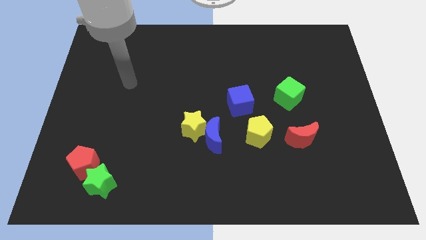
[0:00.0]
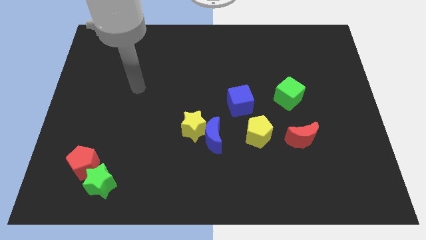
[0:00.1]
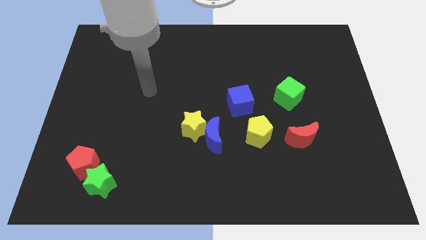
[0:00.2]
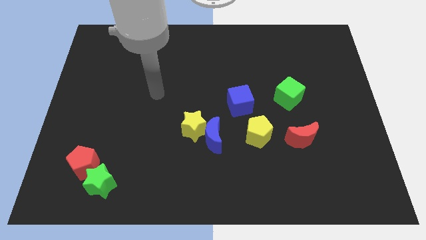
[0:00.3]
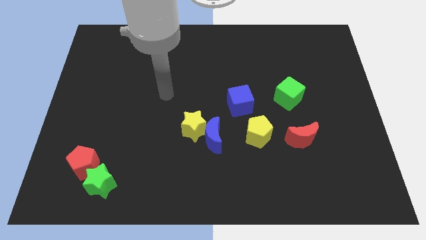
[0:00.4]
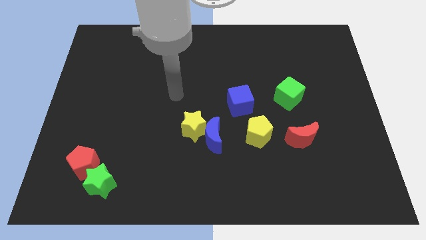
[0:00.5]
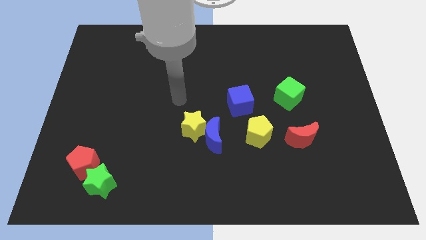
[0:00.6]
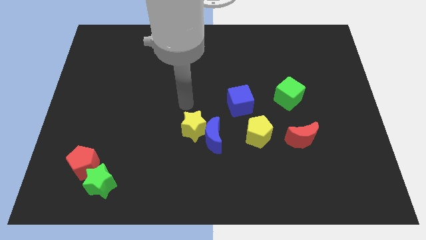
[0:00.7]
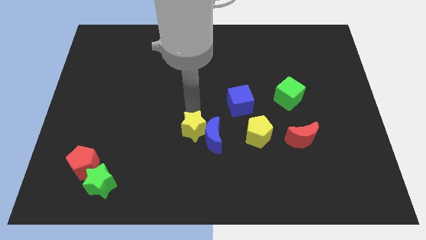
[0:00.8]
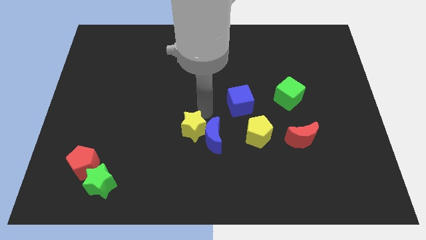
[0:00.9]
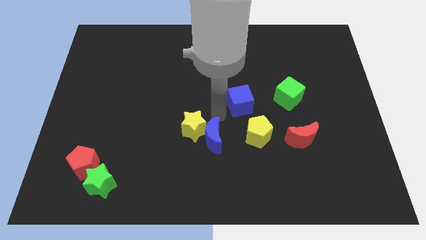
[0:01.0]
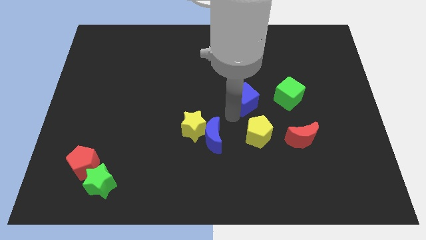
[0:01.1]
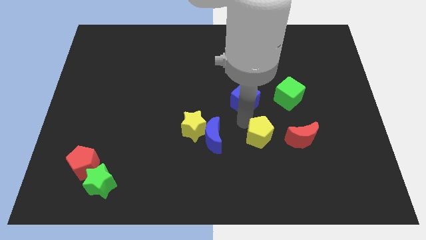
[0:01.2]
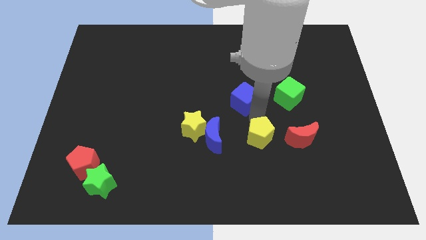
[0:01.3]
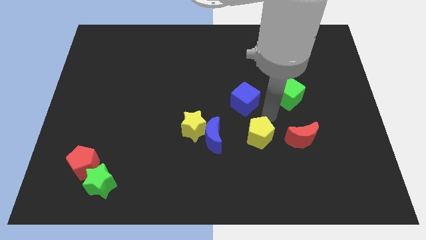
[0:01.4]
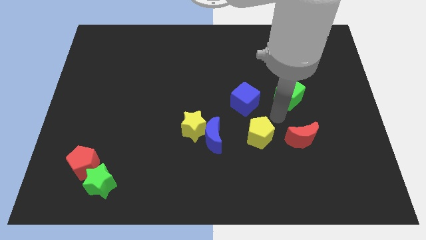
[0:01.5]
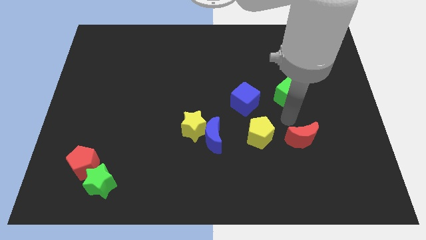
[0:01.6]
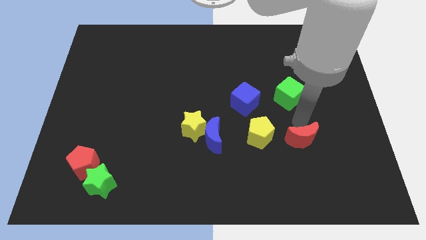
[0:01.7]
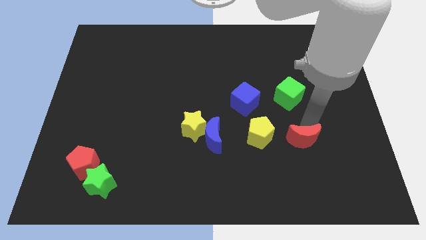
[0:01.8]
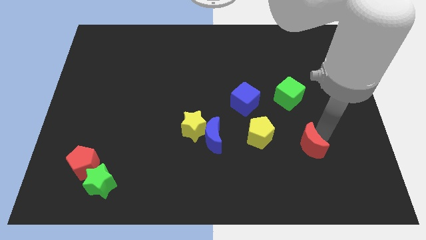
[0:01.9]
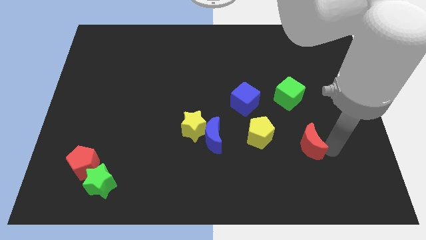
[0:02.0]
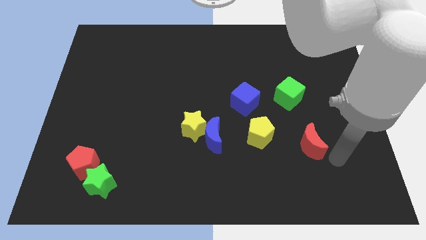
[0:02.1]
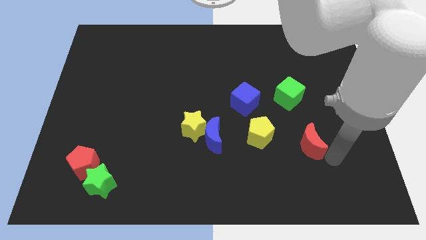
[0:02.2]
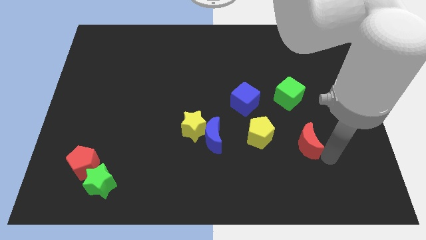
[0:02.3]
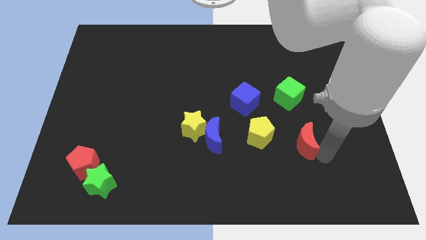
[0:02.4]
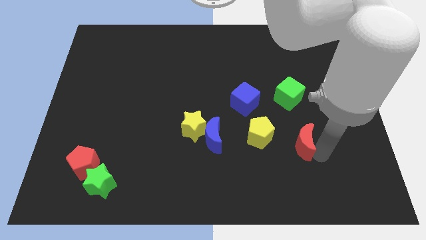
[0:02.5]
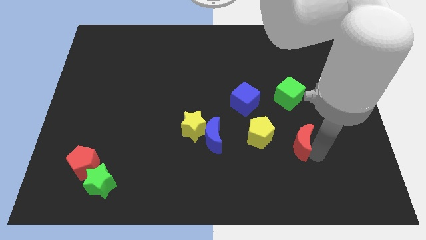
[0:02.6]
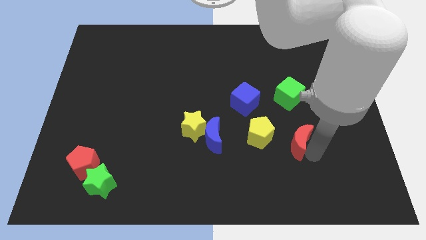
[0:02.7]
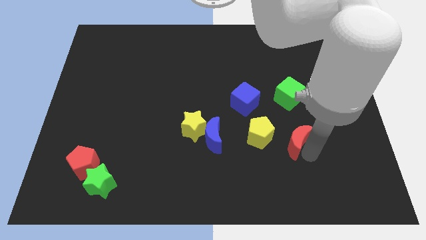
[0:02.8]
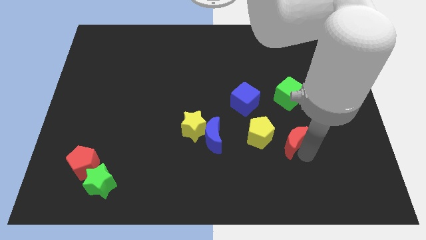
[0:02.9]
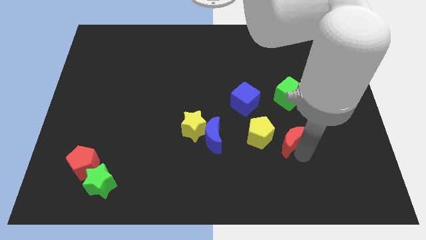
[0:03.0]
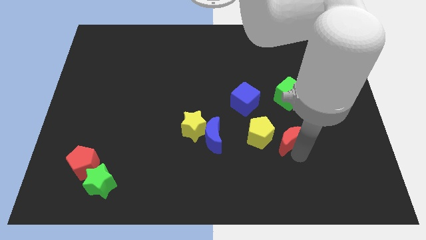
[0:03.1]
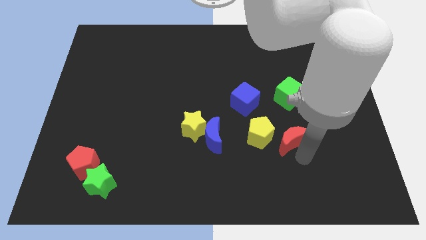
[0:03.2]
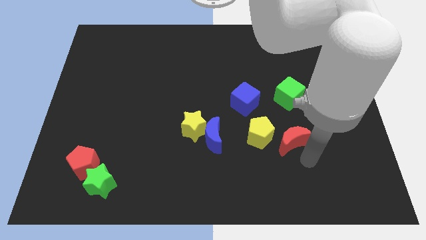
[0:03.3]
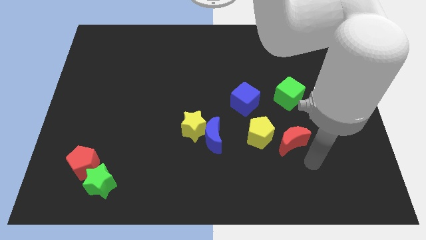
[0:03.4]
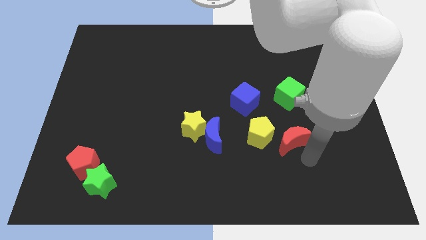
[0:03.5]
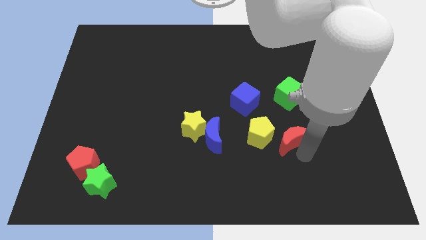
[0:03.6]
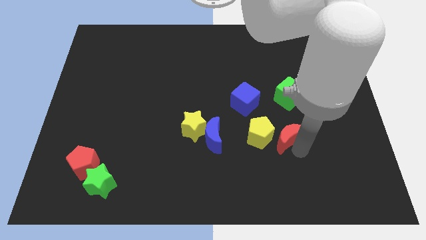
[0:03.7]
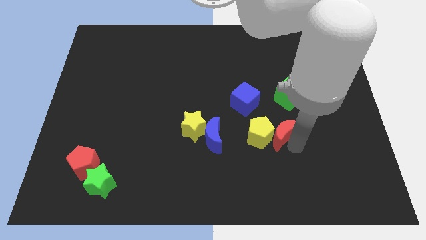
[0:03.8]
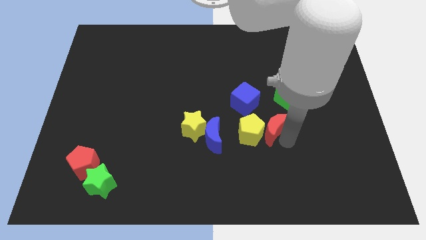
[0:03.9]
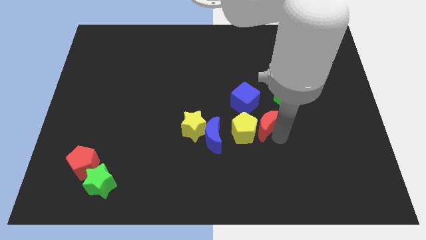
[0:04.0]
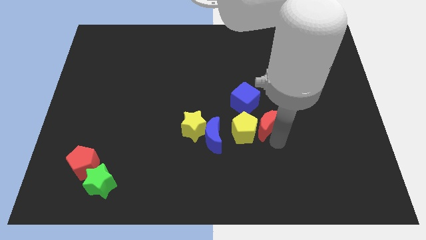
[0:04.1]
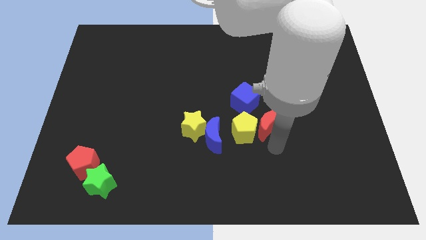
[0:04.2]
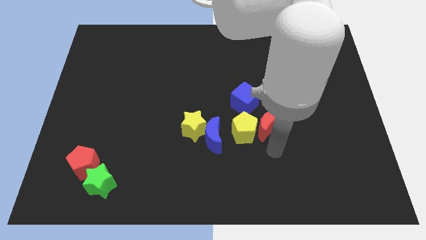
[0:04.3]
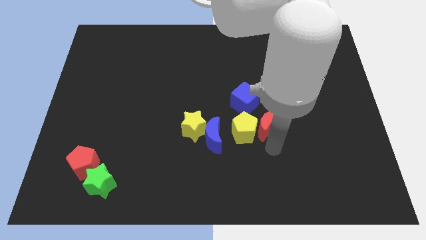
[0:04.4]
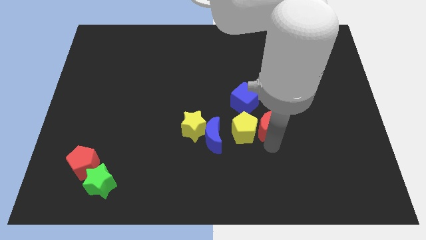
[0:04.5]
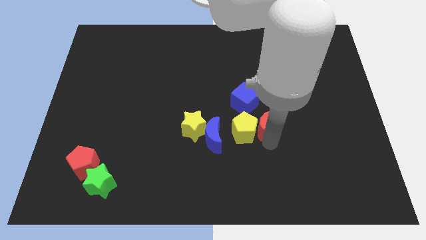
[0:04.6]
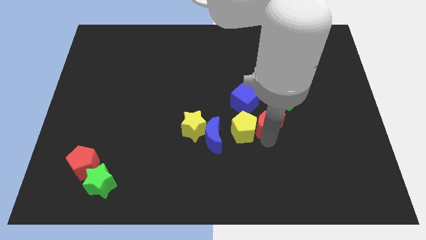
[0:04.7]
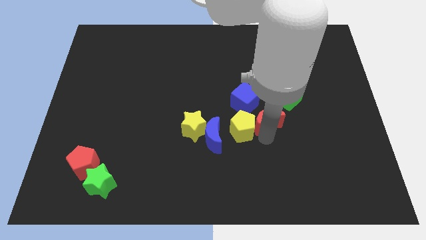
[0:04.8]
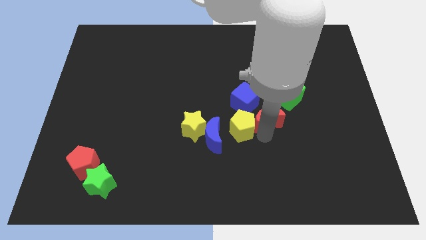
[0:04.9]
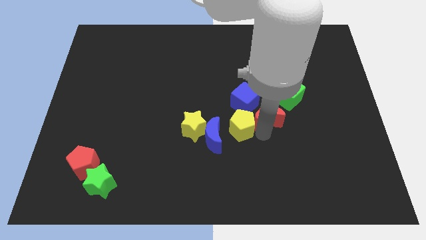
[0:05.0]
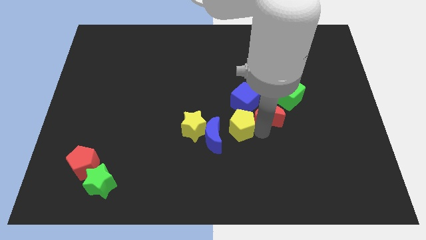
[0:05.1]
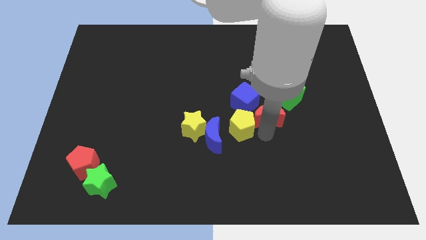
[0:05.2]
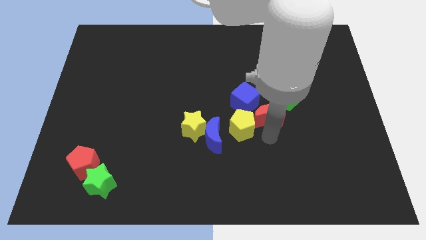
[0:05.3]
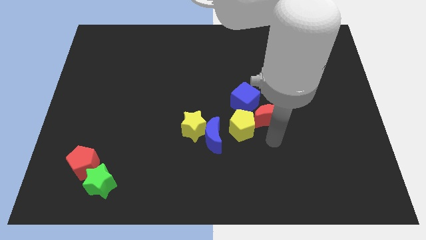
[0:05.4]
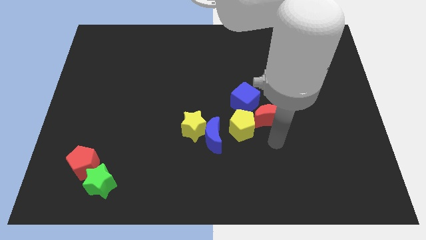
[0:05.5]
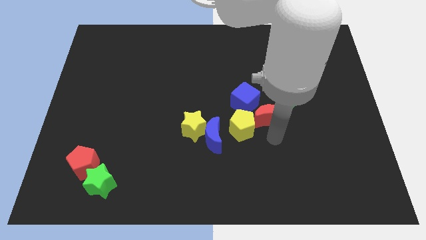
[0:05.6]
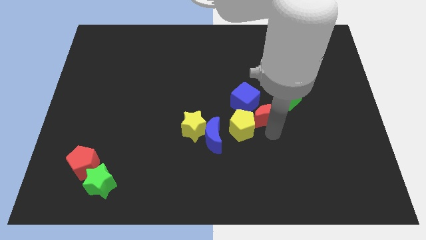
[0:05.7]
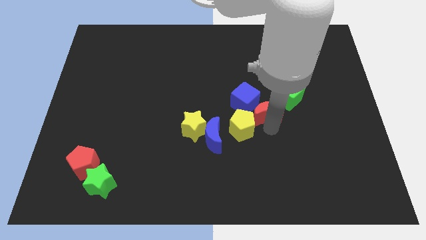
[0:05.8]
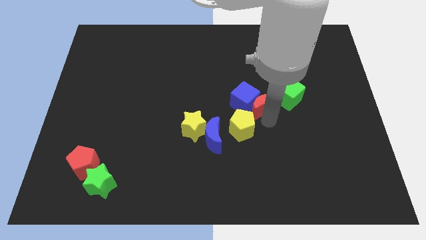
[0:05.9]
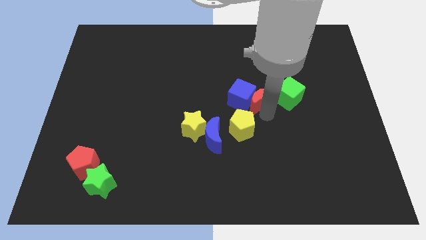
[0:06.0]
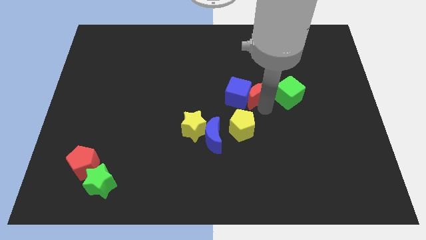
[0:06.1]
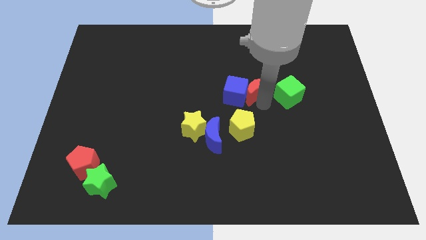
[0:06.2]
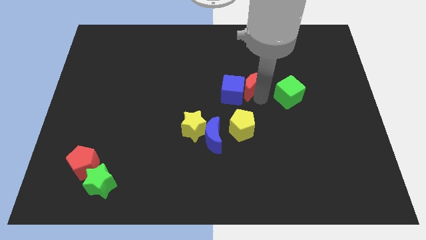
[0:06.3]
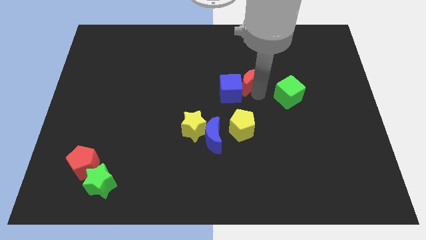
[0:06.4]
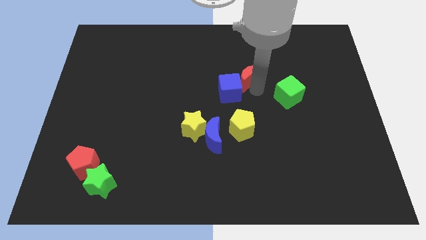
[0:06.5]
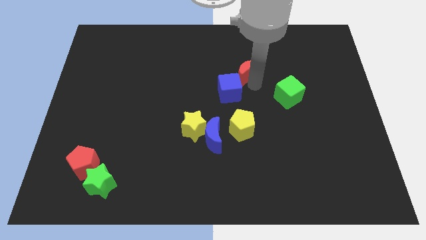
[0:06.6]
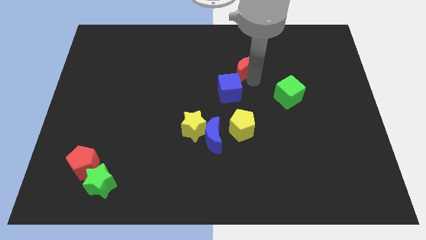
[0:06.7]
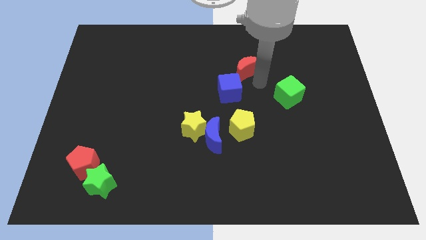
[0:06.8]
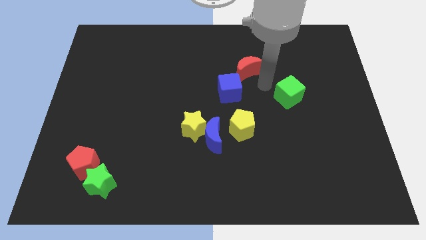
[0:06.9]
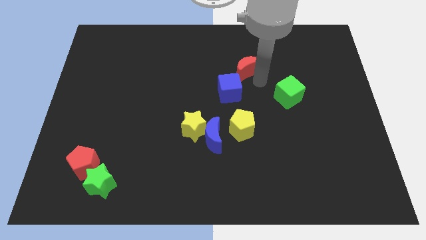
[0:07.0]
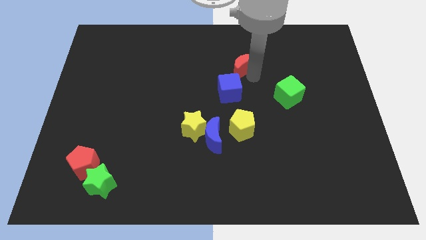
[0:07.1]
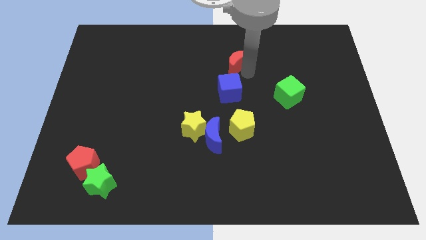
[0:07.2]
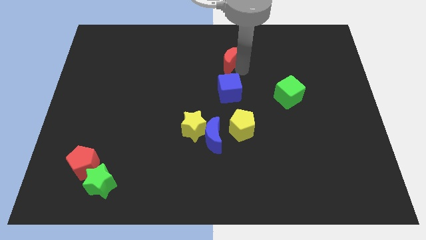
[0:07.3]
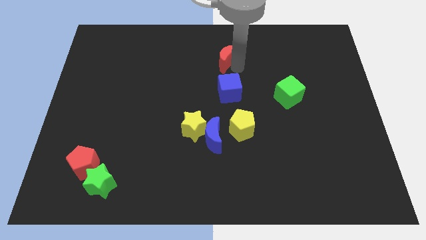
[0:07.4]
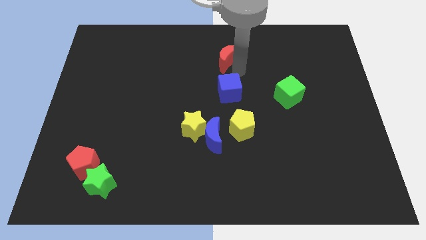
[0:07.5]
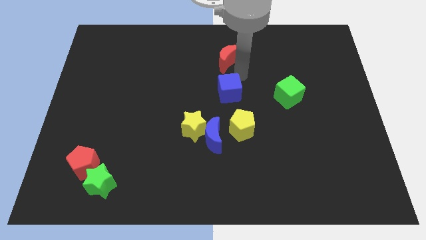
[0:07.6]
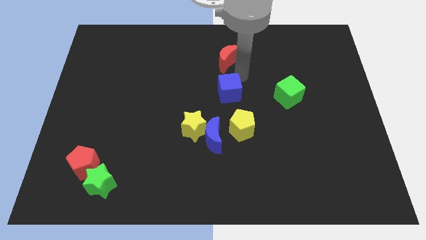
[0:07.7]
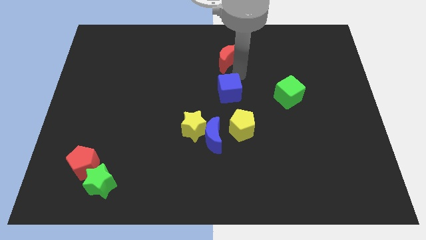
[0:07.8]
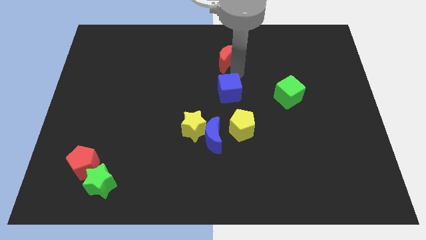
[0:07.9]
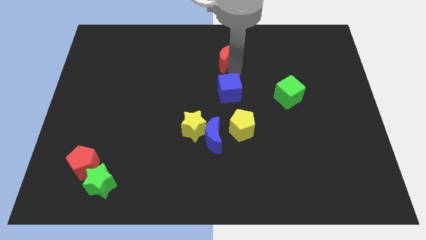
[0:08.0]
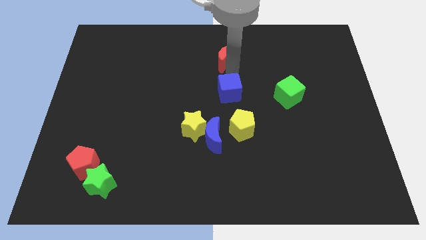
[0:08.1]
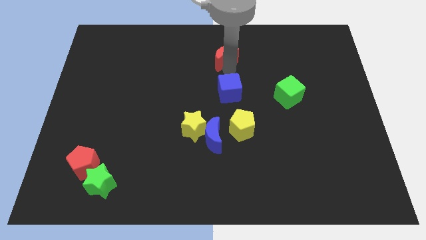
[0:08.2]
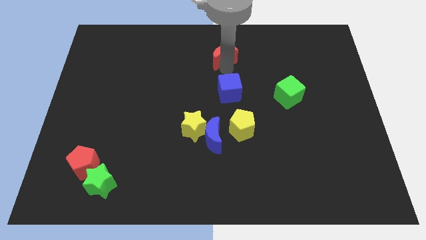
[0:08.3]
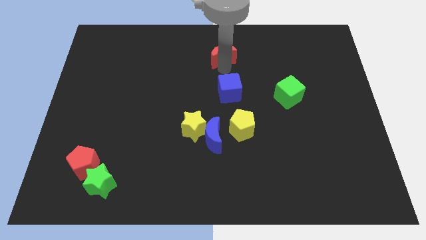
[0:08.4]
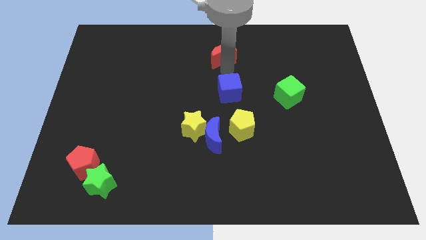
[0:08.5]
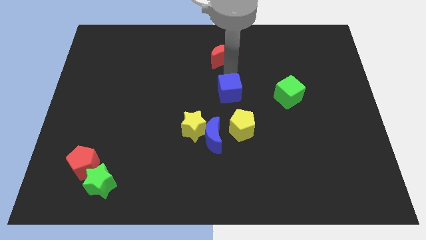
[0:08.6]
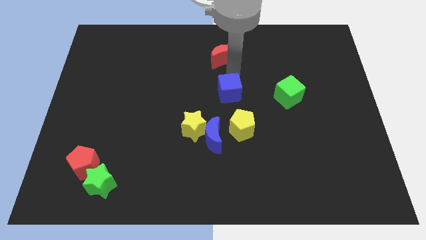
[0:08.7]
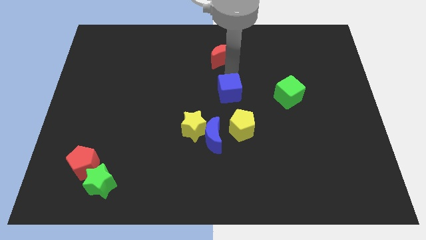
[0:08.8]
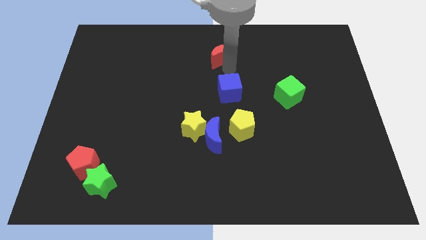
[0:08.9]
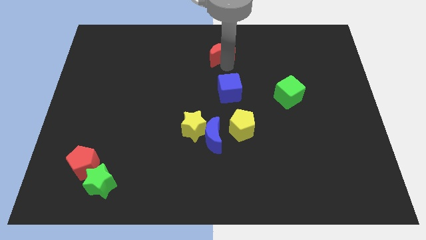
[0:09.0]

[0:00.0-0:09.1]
slide the red moon to the top side
